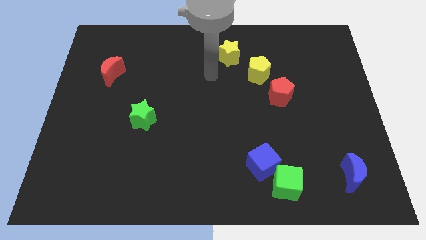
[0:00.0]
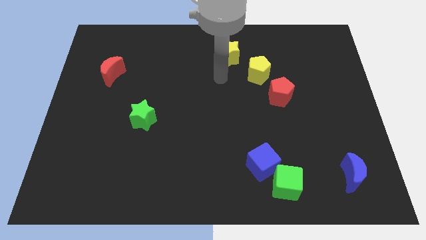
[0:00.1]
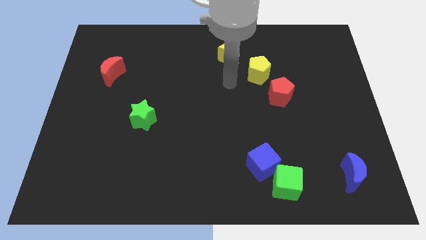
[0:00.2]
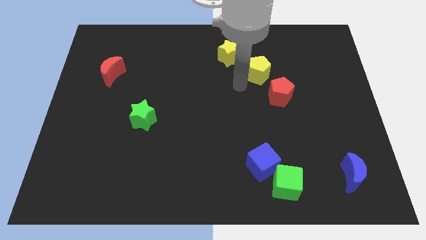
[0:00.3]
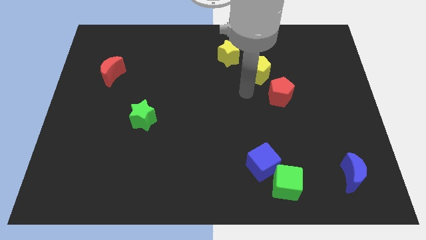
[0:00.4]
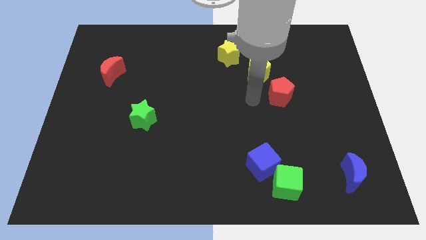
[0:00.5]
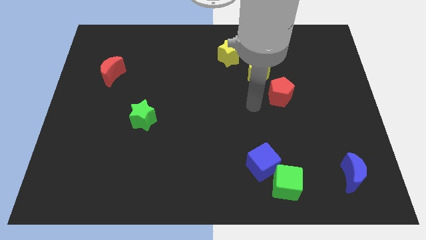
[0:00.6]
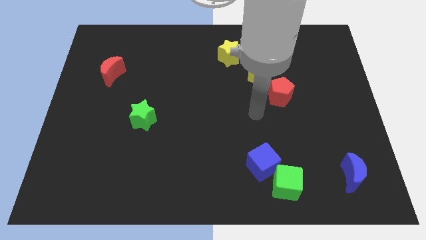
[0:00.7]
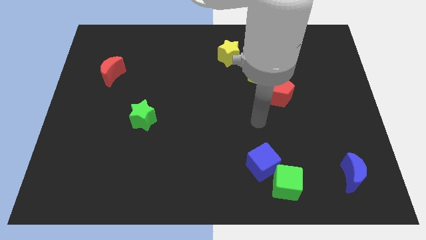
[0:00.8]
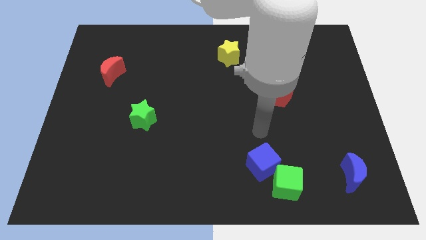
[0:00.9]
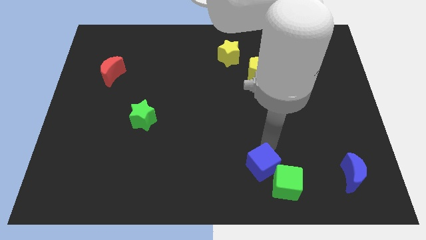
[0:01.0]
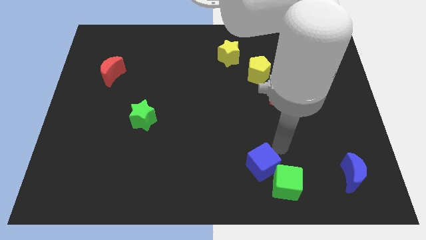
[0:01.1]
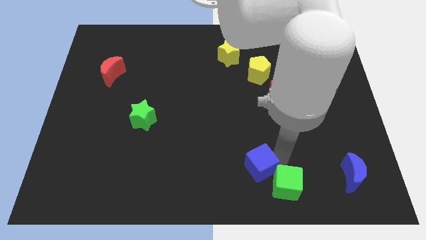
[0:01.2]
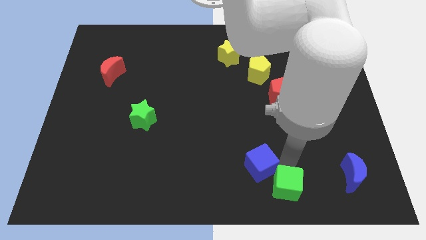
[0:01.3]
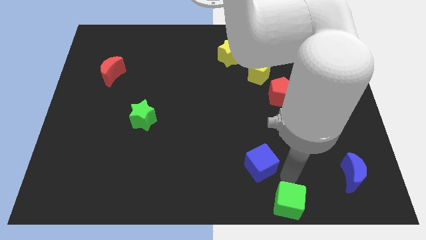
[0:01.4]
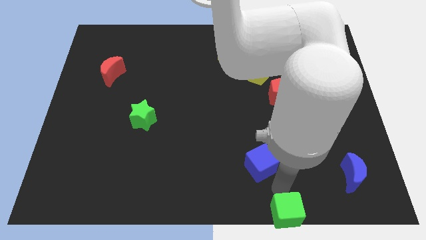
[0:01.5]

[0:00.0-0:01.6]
move the blue cube away from the green cube

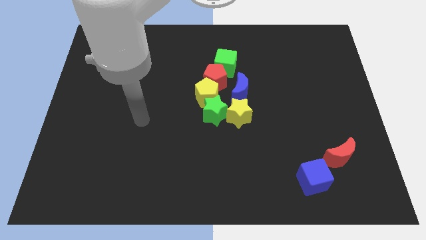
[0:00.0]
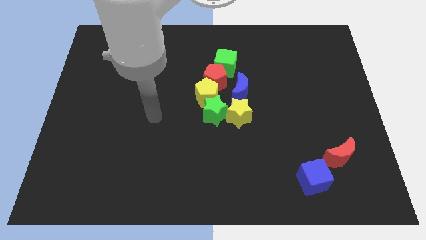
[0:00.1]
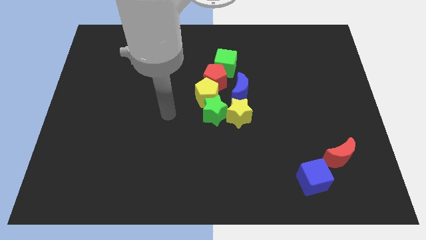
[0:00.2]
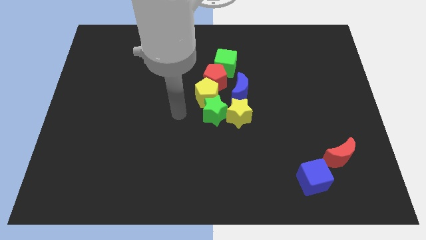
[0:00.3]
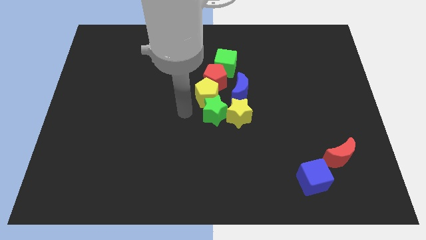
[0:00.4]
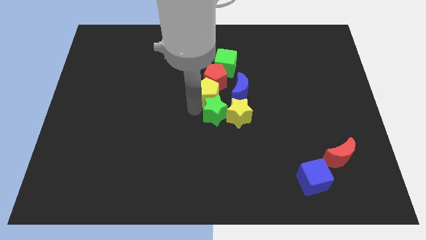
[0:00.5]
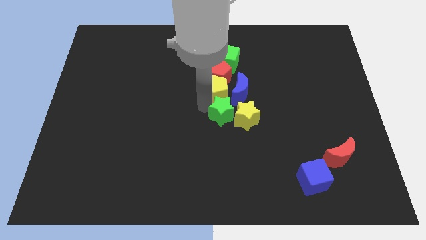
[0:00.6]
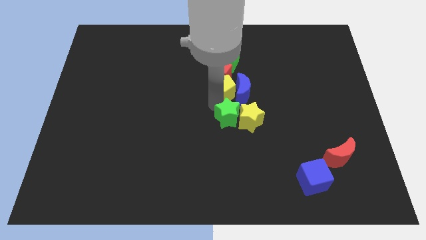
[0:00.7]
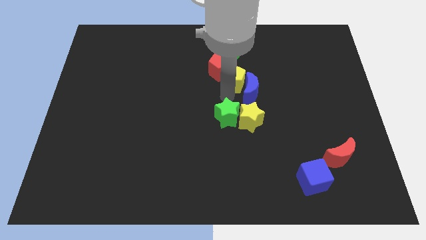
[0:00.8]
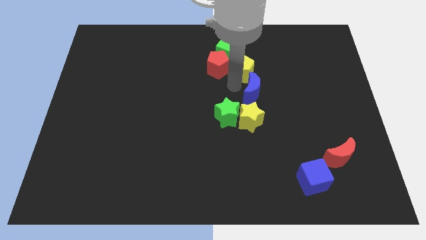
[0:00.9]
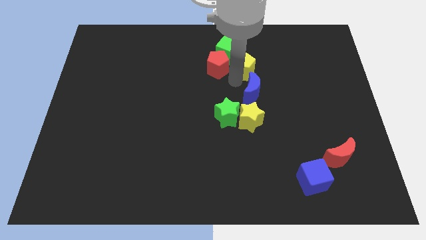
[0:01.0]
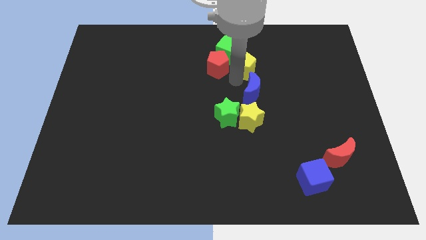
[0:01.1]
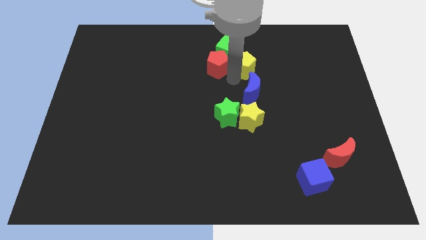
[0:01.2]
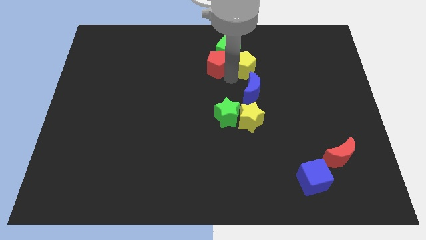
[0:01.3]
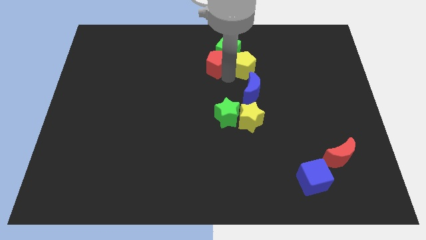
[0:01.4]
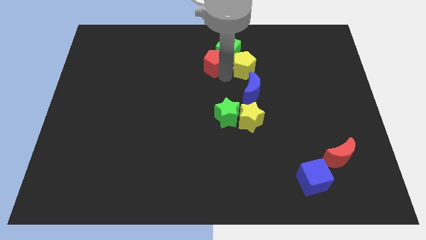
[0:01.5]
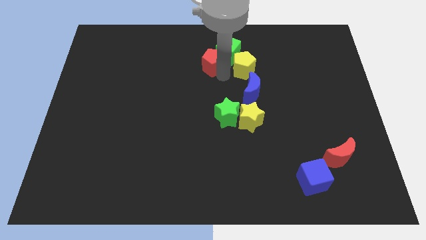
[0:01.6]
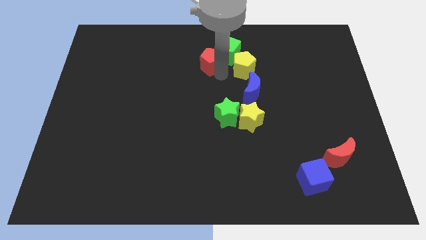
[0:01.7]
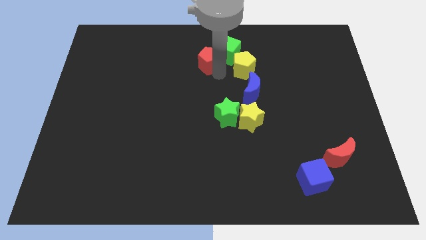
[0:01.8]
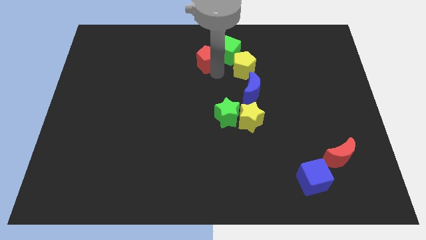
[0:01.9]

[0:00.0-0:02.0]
pull the red pentagon apart from the clump

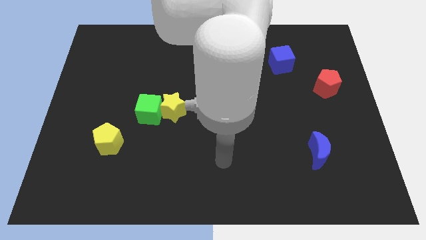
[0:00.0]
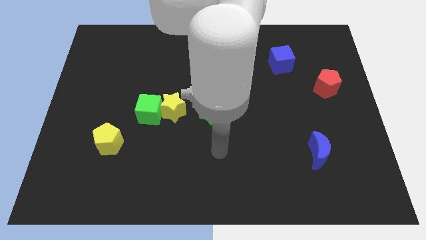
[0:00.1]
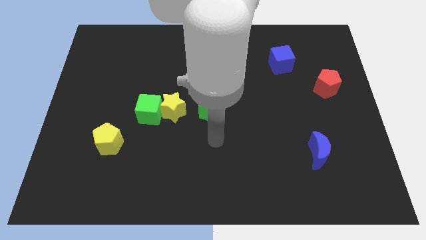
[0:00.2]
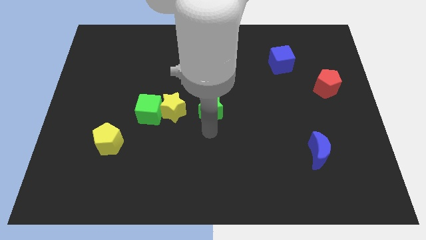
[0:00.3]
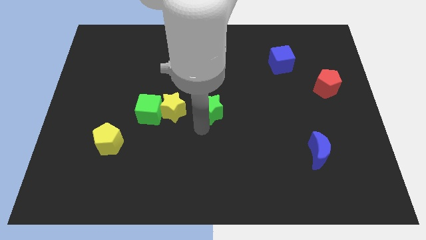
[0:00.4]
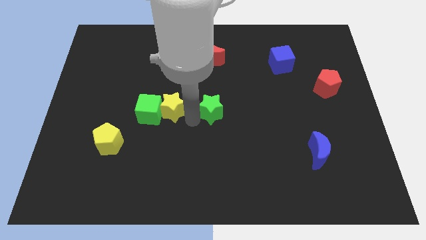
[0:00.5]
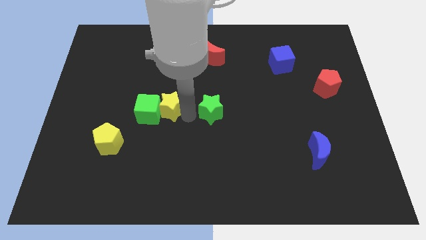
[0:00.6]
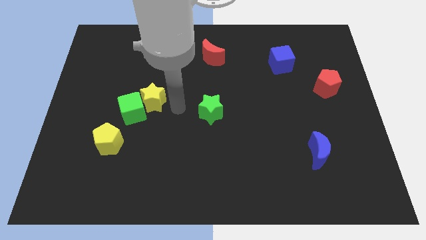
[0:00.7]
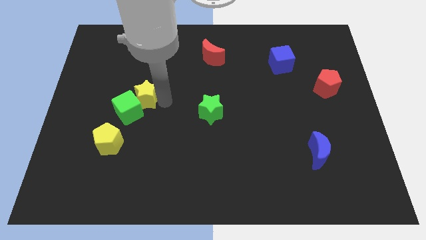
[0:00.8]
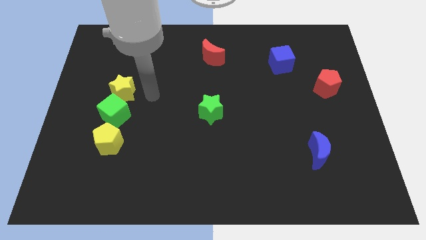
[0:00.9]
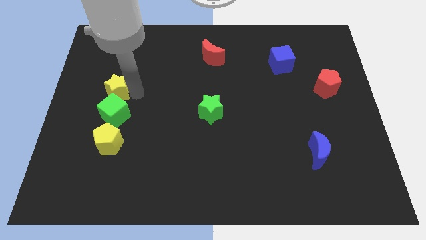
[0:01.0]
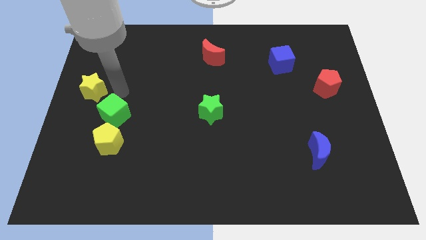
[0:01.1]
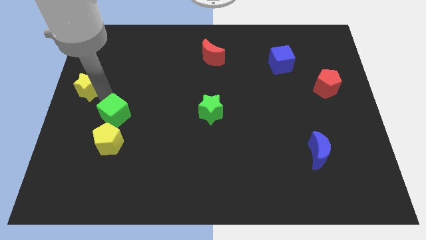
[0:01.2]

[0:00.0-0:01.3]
pull the green cube apart from the yellow star

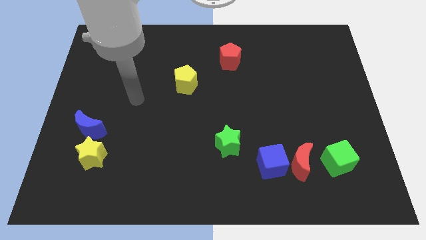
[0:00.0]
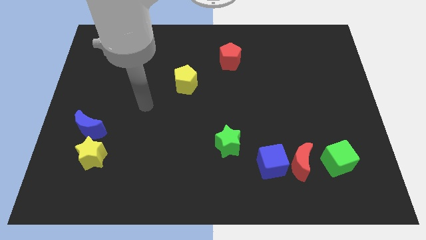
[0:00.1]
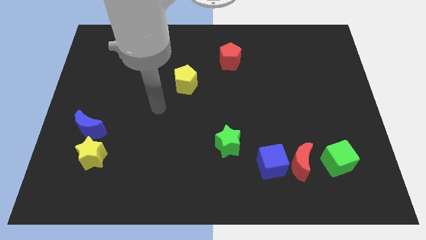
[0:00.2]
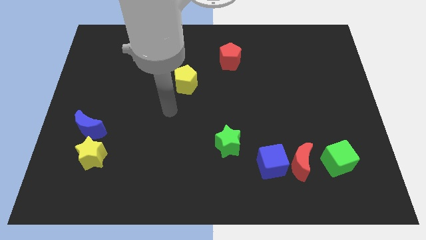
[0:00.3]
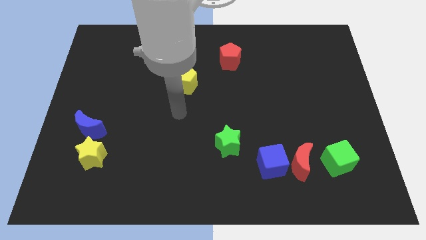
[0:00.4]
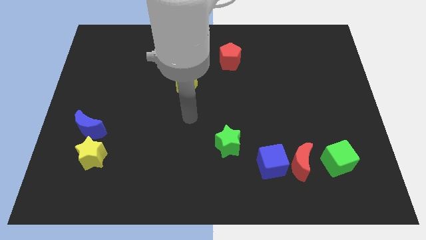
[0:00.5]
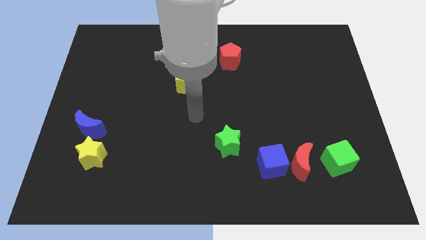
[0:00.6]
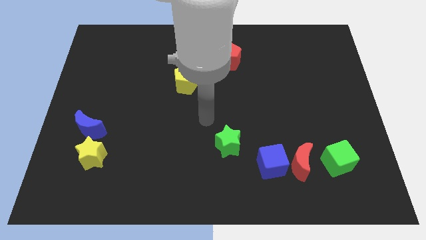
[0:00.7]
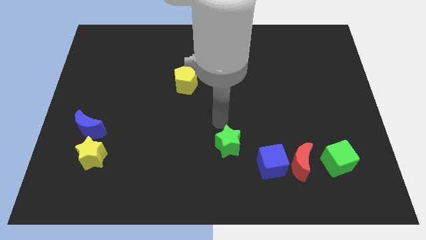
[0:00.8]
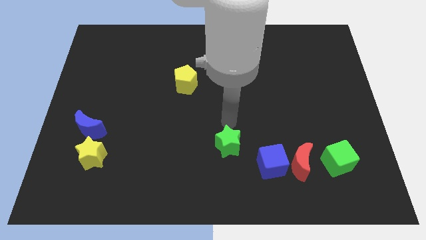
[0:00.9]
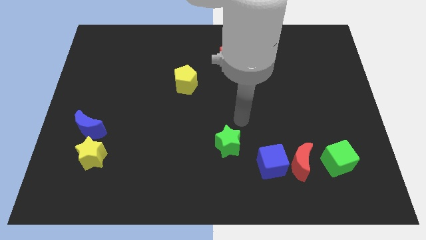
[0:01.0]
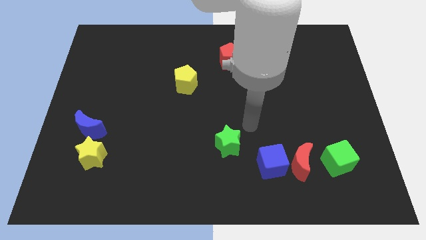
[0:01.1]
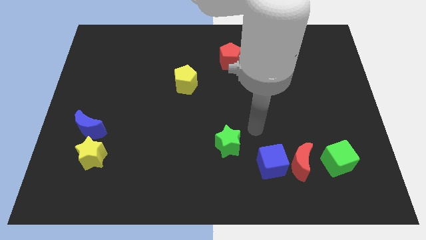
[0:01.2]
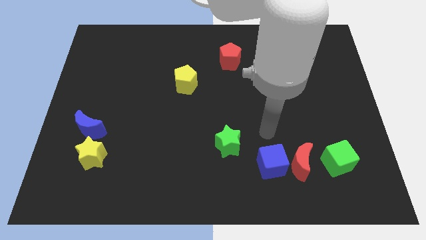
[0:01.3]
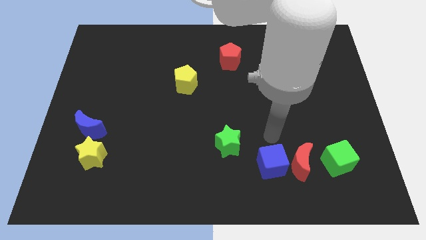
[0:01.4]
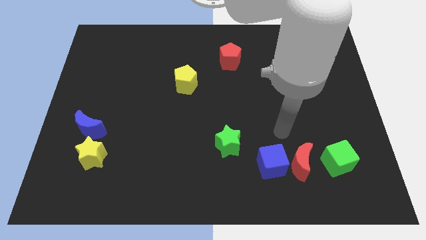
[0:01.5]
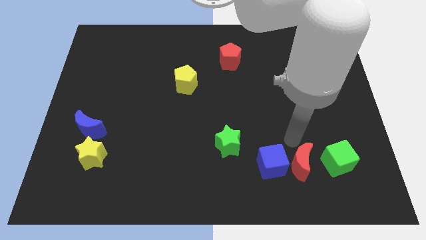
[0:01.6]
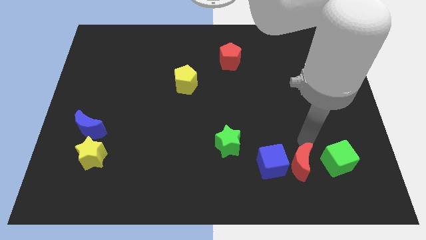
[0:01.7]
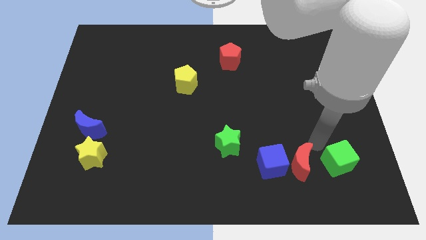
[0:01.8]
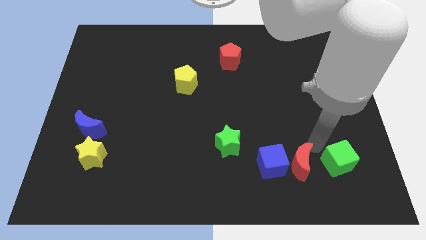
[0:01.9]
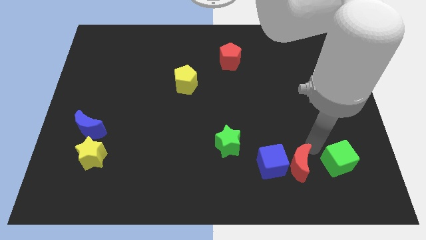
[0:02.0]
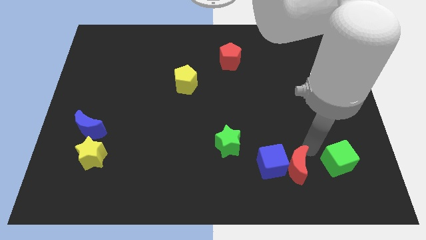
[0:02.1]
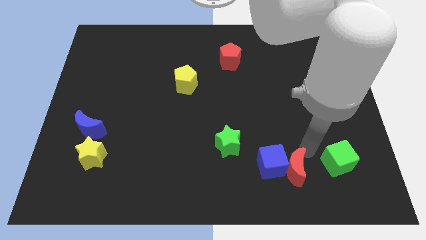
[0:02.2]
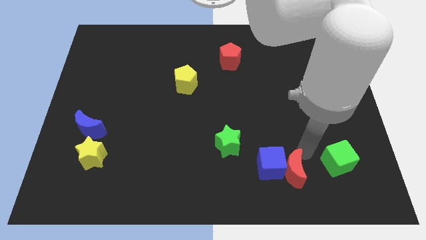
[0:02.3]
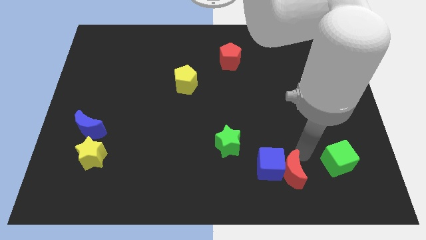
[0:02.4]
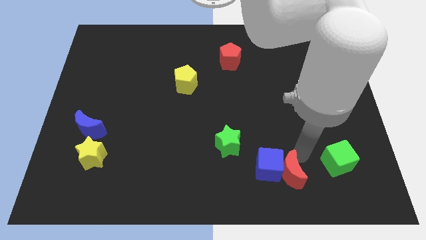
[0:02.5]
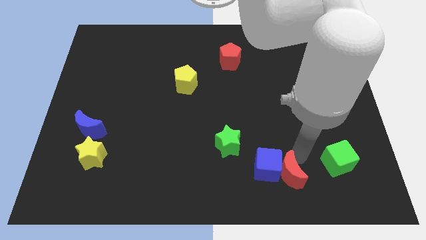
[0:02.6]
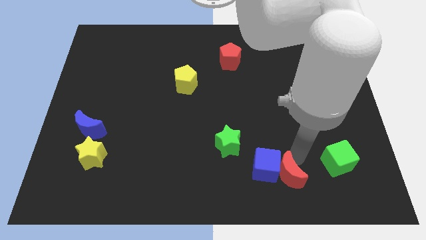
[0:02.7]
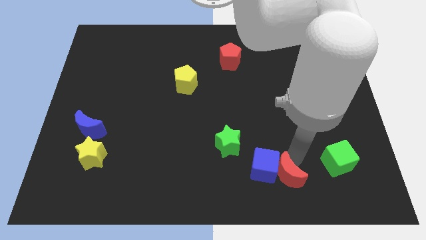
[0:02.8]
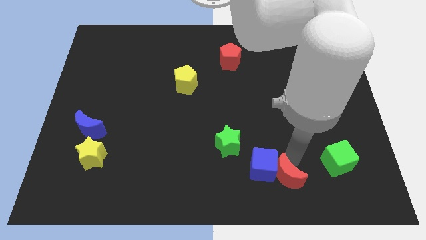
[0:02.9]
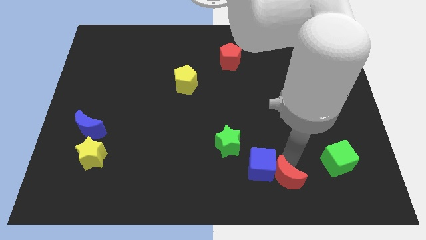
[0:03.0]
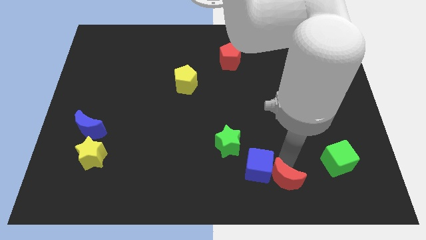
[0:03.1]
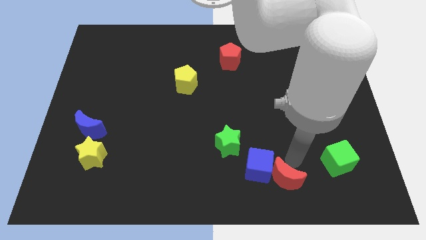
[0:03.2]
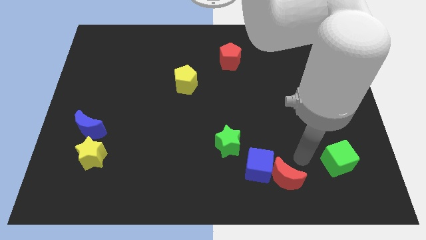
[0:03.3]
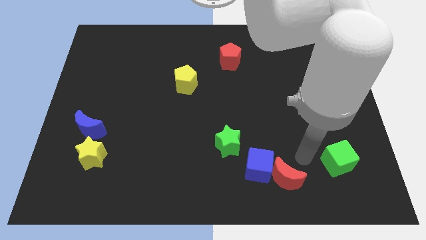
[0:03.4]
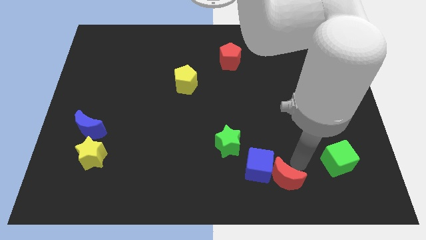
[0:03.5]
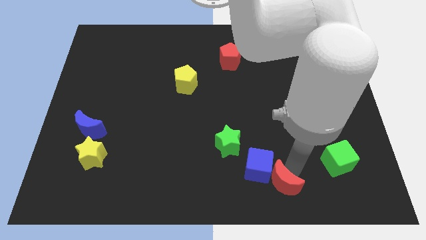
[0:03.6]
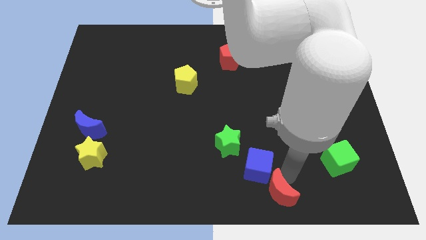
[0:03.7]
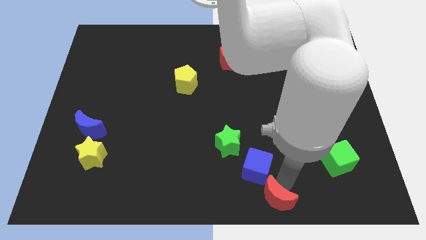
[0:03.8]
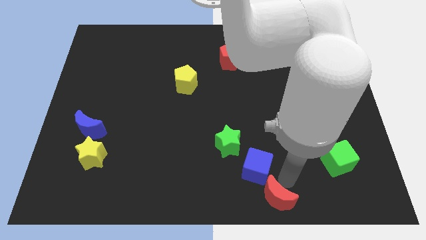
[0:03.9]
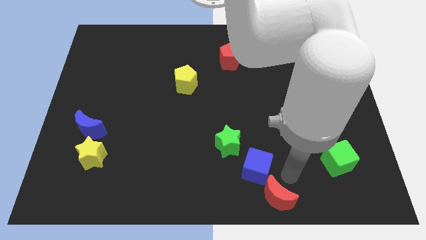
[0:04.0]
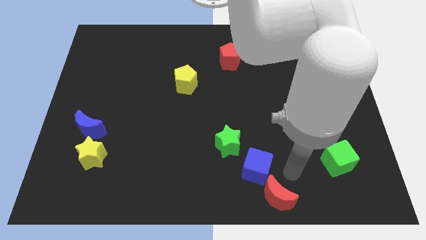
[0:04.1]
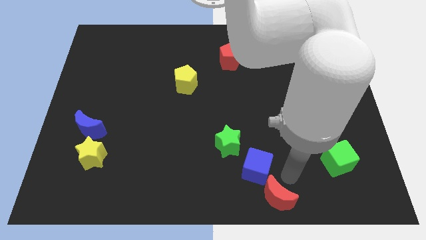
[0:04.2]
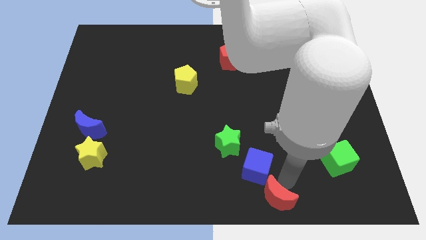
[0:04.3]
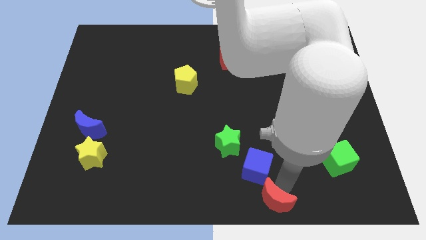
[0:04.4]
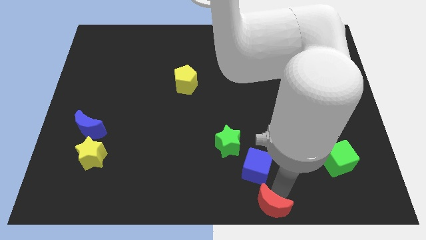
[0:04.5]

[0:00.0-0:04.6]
separate the red moon from the blue cube and green cube

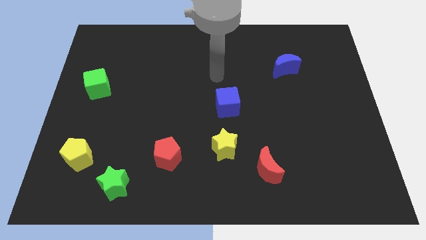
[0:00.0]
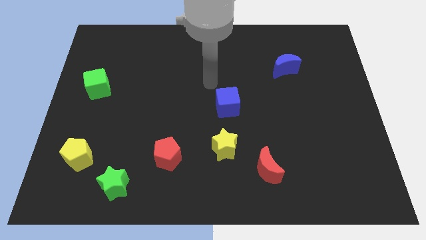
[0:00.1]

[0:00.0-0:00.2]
pull the red moon apart from the yellow star
